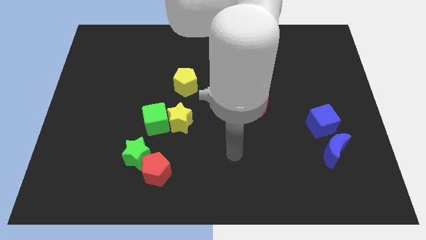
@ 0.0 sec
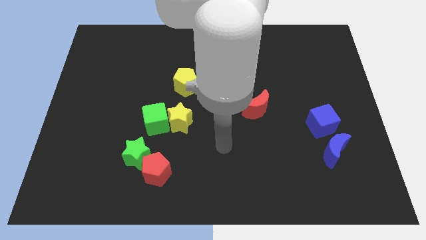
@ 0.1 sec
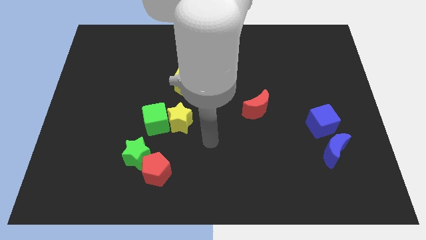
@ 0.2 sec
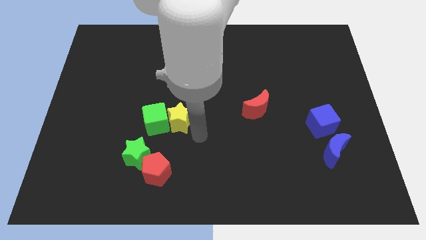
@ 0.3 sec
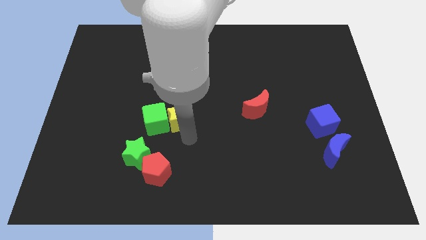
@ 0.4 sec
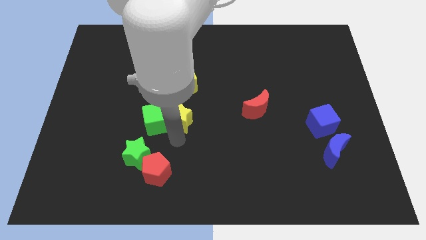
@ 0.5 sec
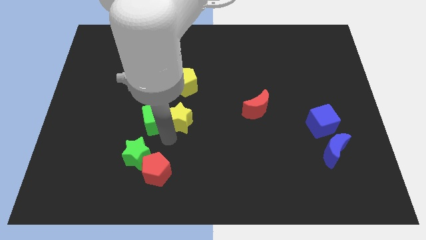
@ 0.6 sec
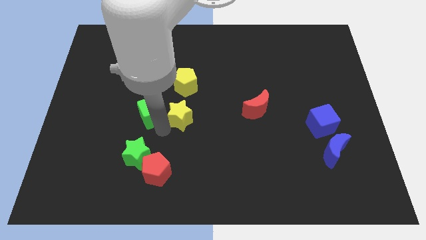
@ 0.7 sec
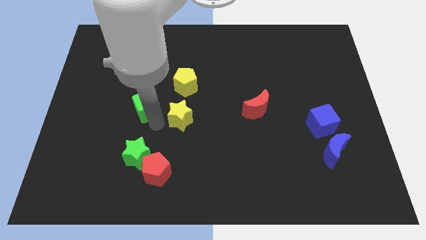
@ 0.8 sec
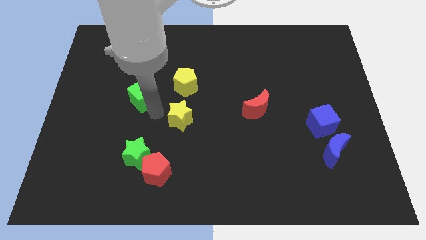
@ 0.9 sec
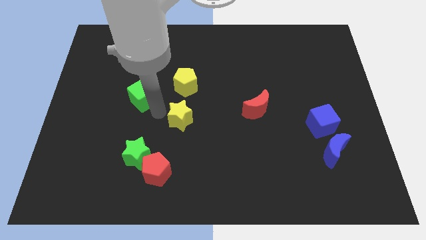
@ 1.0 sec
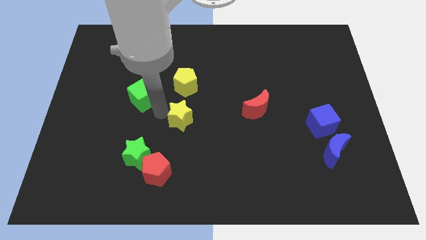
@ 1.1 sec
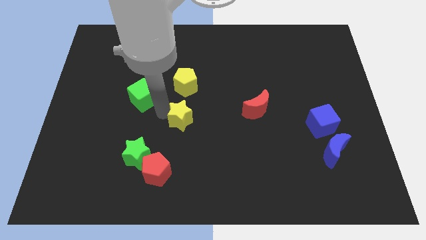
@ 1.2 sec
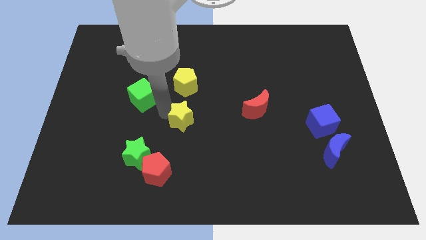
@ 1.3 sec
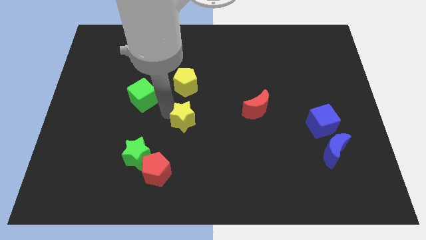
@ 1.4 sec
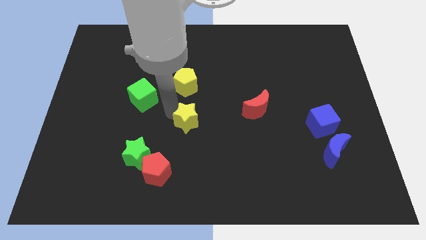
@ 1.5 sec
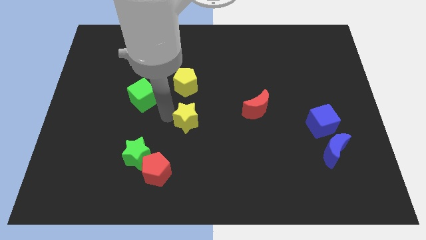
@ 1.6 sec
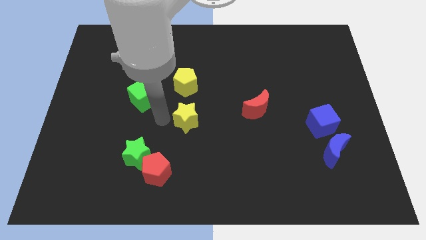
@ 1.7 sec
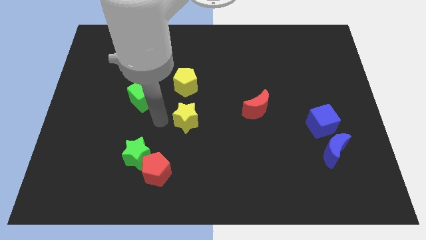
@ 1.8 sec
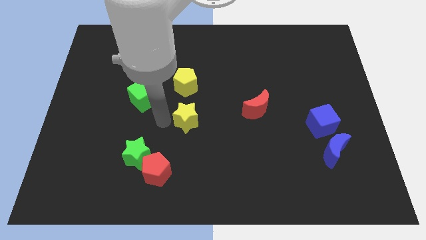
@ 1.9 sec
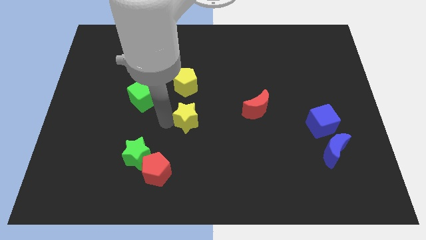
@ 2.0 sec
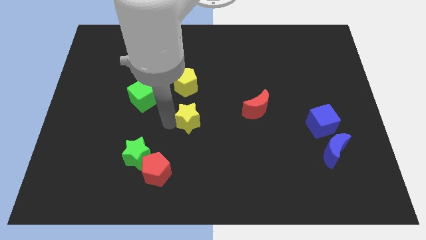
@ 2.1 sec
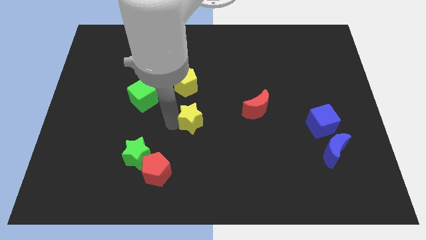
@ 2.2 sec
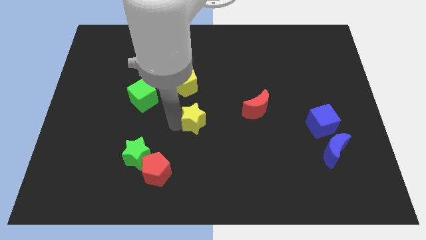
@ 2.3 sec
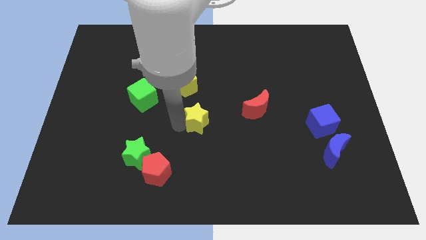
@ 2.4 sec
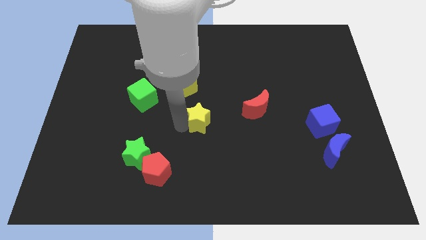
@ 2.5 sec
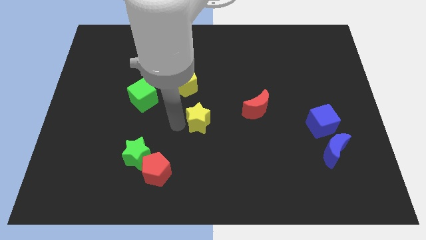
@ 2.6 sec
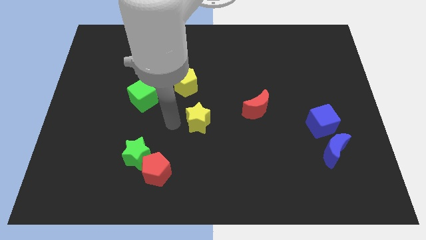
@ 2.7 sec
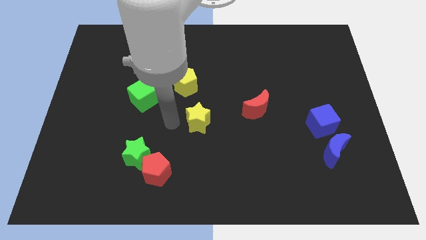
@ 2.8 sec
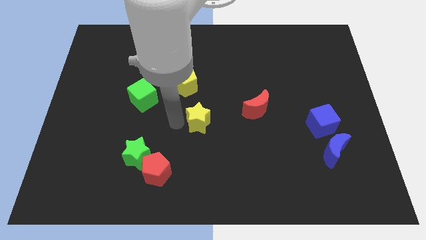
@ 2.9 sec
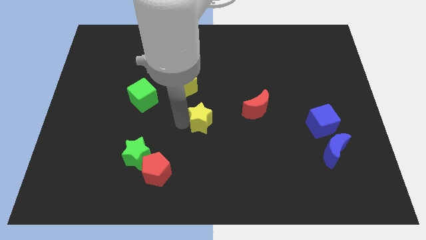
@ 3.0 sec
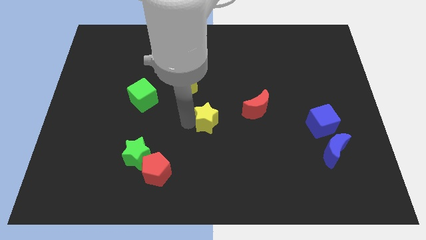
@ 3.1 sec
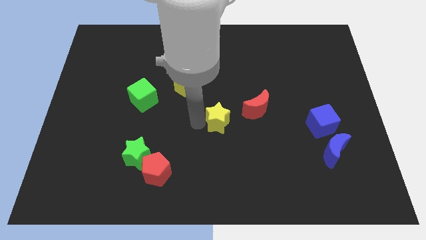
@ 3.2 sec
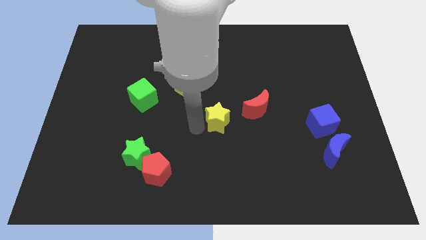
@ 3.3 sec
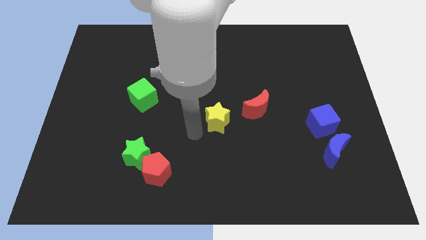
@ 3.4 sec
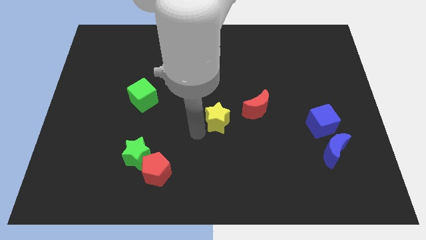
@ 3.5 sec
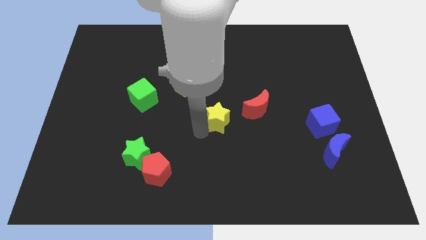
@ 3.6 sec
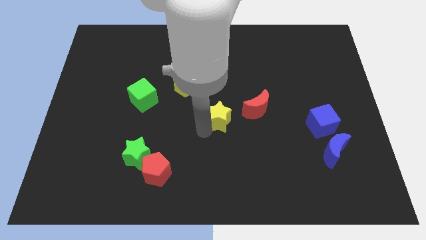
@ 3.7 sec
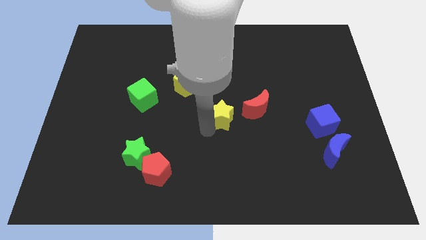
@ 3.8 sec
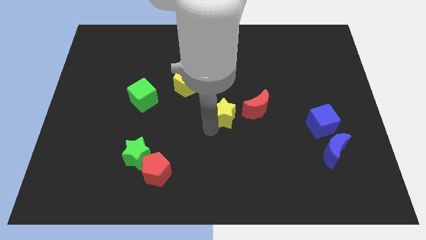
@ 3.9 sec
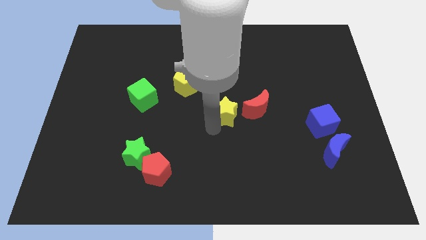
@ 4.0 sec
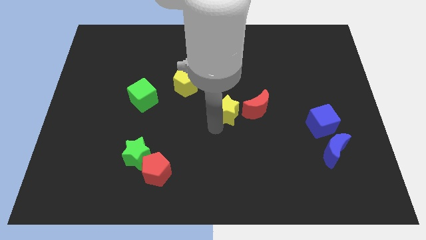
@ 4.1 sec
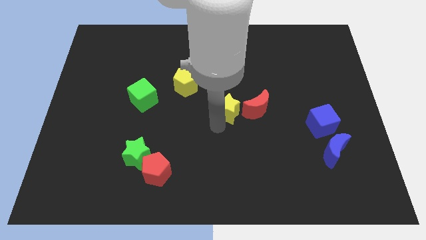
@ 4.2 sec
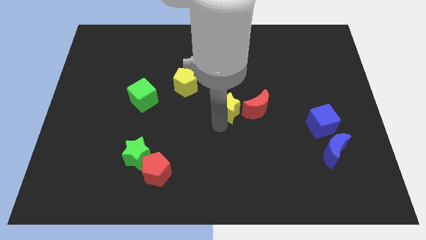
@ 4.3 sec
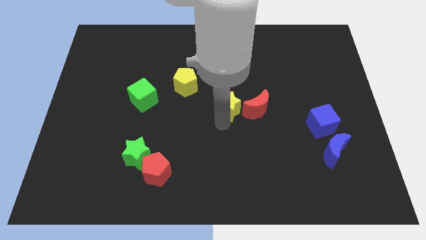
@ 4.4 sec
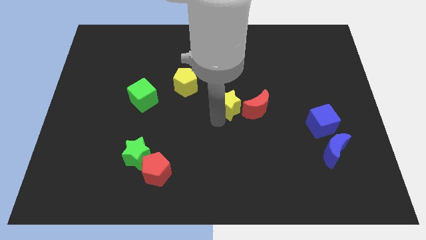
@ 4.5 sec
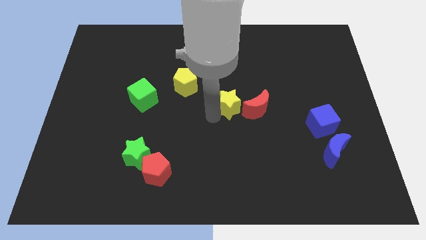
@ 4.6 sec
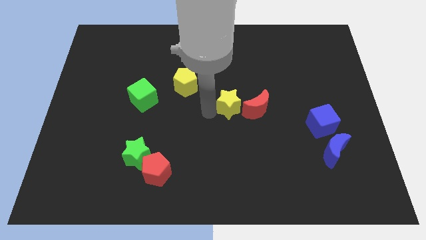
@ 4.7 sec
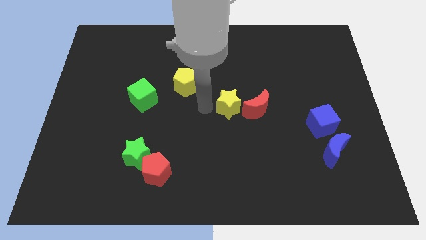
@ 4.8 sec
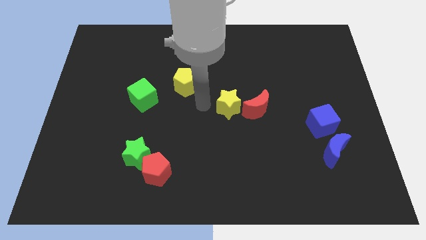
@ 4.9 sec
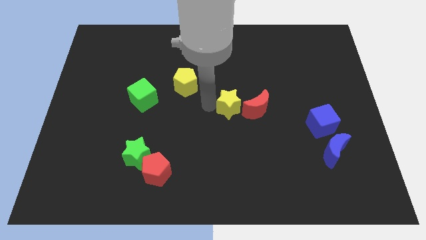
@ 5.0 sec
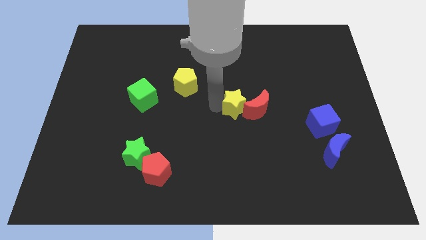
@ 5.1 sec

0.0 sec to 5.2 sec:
push the yellow star next to the red moon

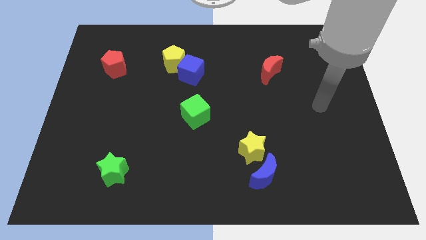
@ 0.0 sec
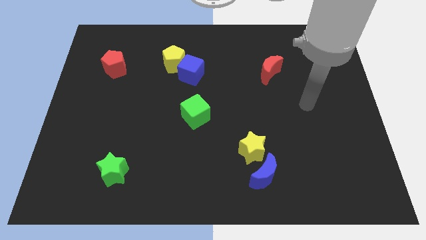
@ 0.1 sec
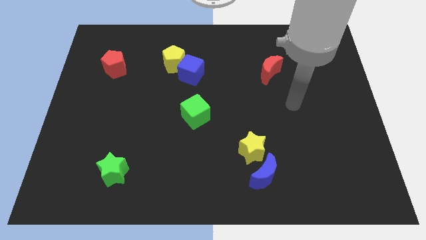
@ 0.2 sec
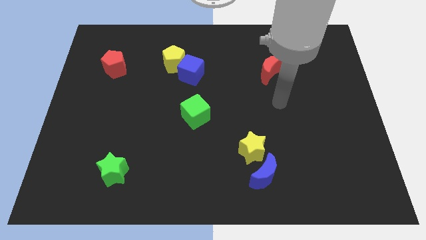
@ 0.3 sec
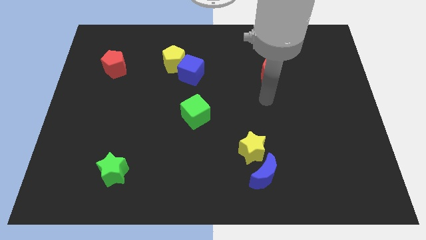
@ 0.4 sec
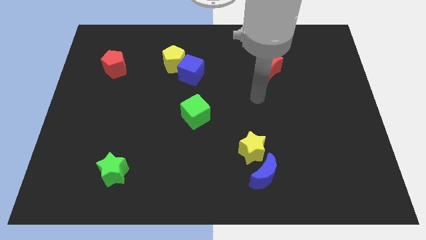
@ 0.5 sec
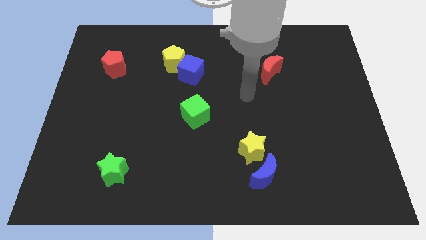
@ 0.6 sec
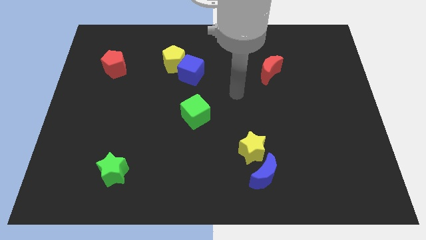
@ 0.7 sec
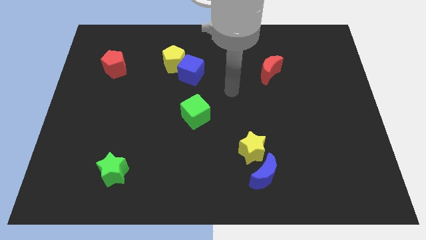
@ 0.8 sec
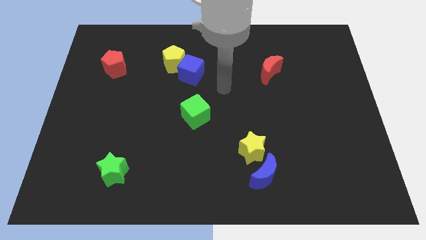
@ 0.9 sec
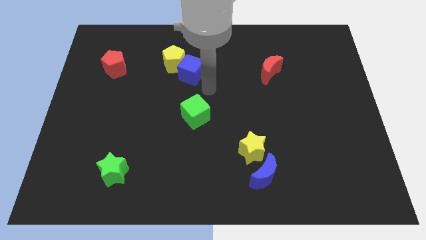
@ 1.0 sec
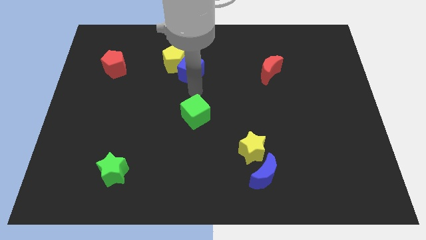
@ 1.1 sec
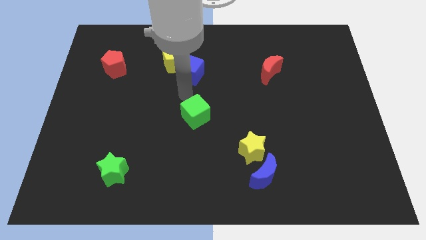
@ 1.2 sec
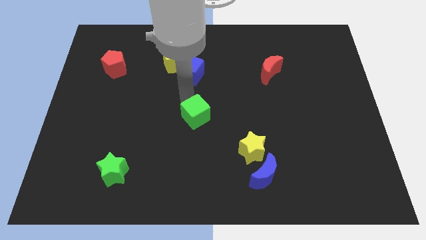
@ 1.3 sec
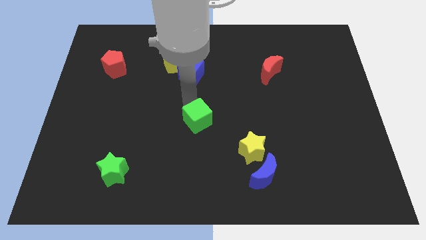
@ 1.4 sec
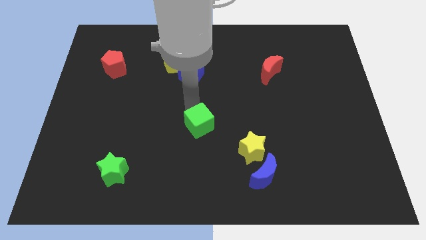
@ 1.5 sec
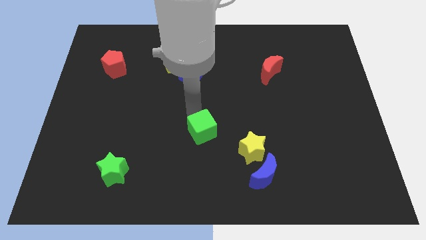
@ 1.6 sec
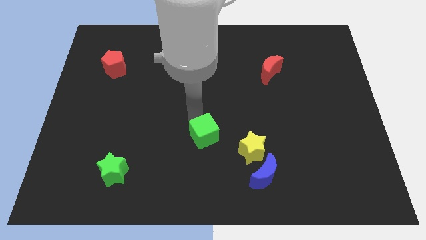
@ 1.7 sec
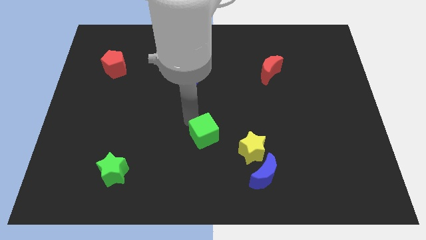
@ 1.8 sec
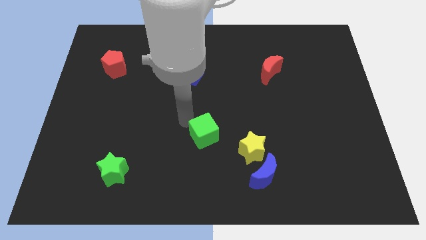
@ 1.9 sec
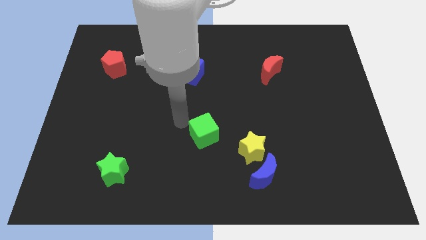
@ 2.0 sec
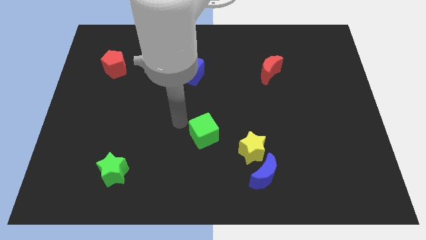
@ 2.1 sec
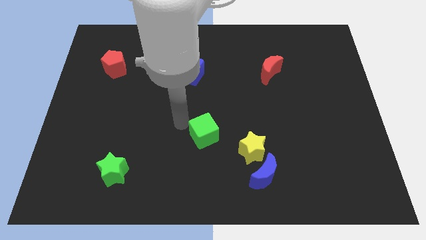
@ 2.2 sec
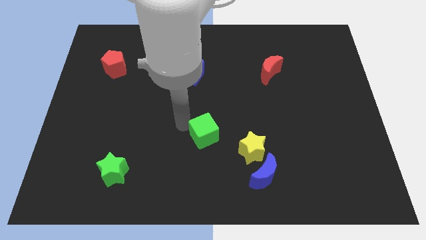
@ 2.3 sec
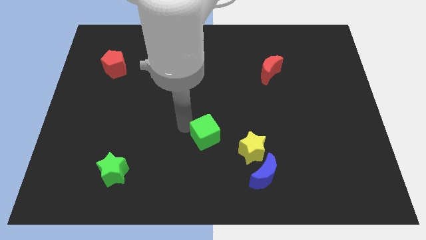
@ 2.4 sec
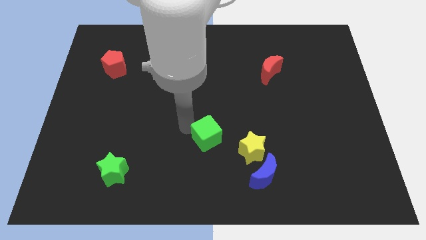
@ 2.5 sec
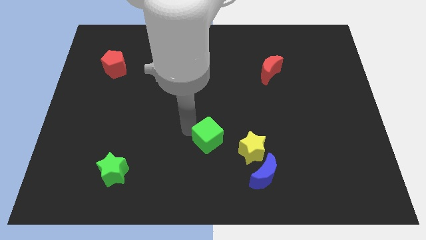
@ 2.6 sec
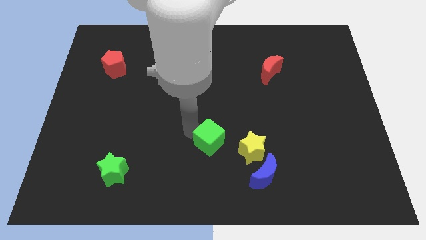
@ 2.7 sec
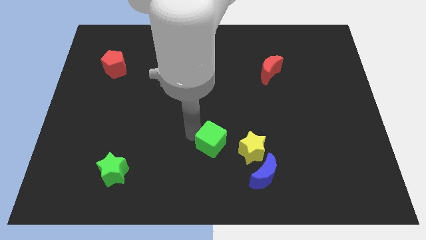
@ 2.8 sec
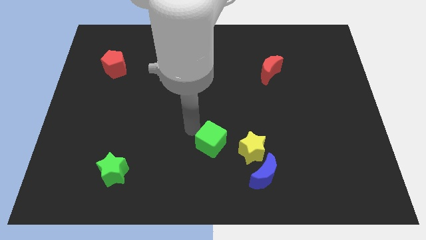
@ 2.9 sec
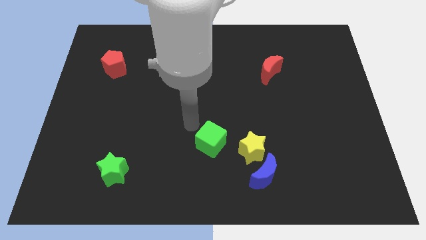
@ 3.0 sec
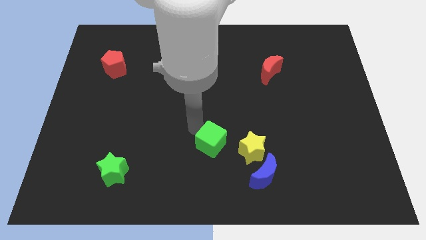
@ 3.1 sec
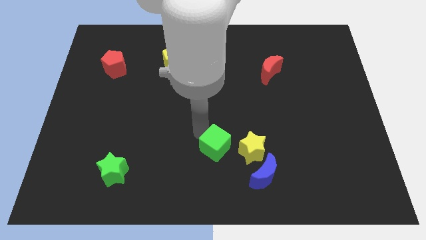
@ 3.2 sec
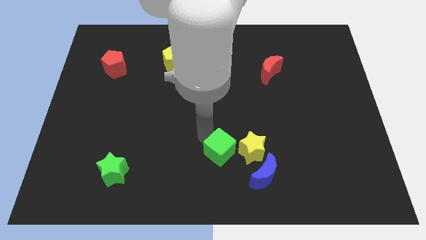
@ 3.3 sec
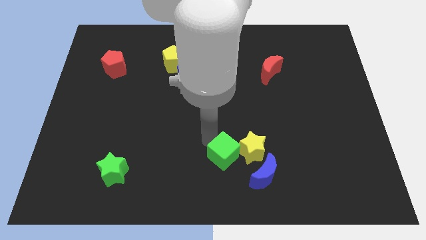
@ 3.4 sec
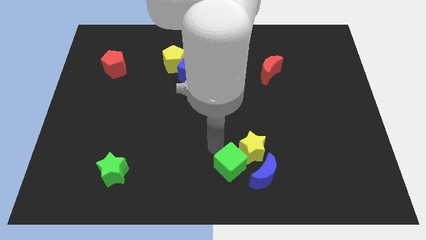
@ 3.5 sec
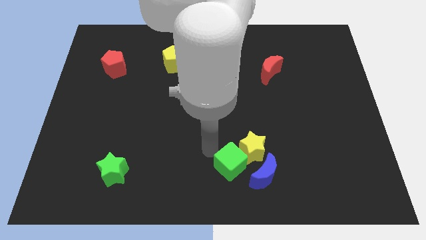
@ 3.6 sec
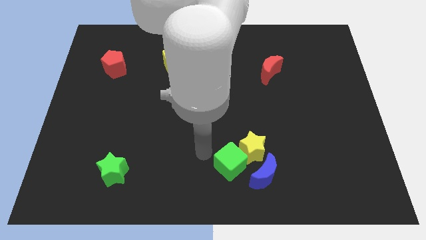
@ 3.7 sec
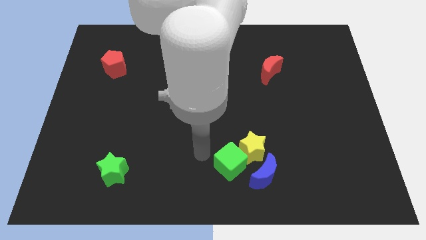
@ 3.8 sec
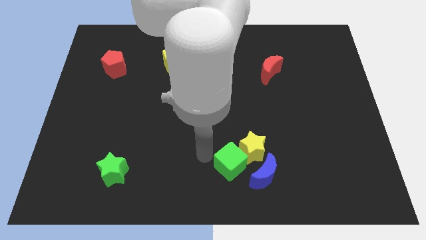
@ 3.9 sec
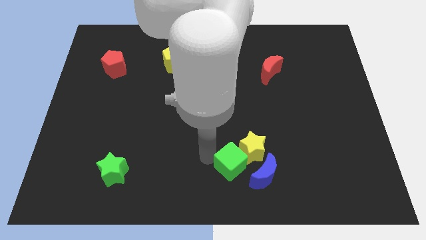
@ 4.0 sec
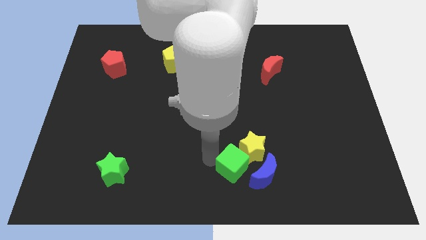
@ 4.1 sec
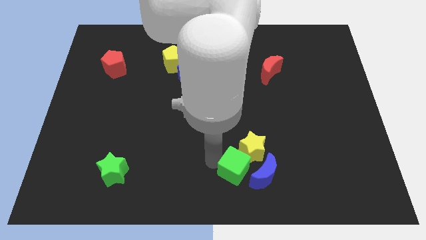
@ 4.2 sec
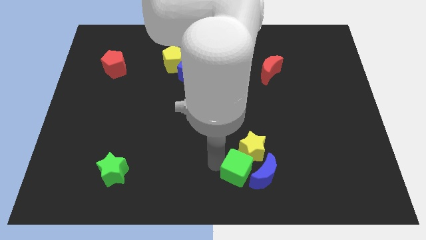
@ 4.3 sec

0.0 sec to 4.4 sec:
move the green cube towards the blue moon
